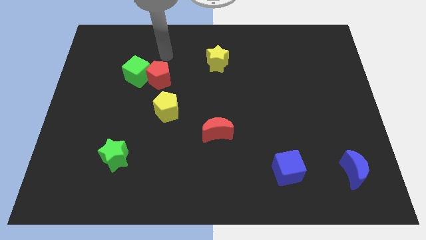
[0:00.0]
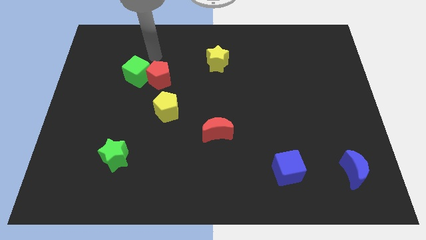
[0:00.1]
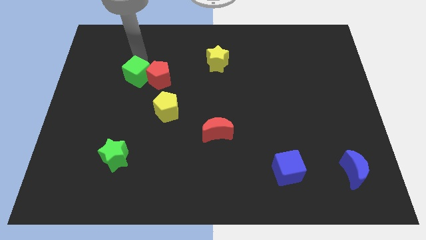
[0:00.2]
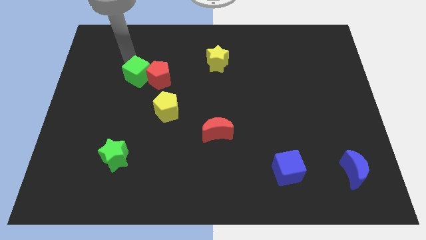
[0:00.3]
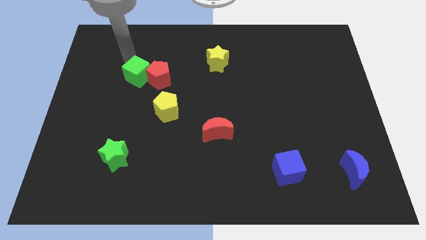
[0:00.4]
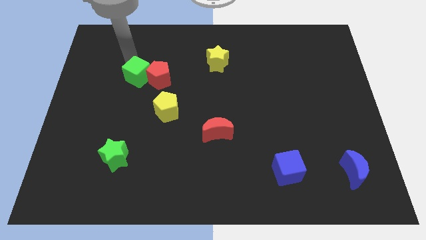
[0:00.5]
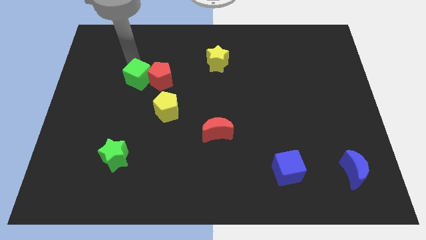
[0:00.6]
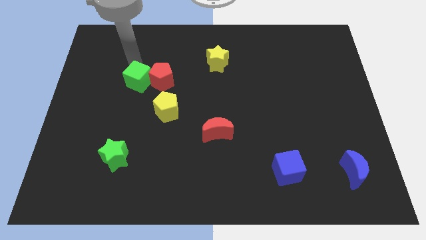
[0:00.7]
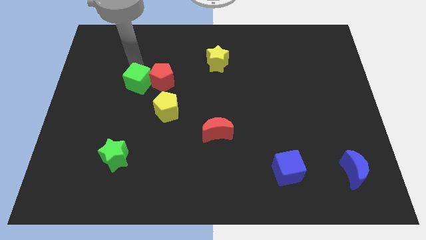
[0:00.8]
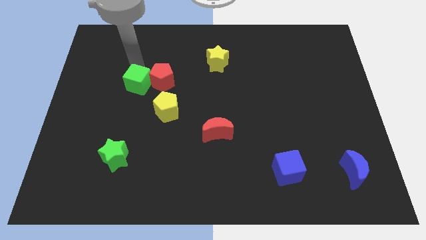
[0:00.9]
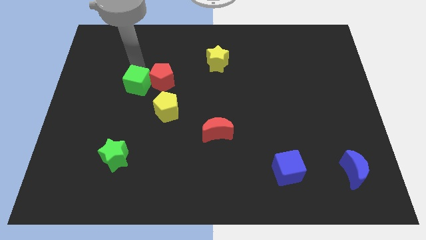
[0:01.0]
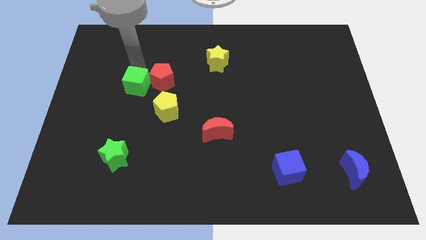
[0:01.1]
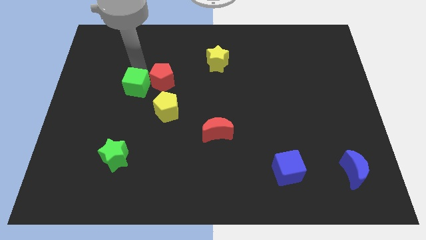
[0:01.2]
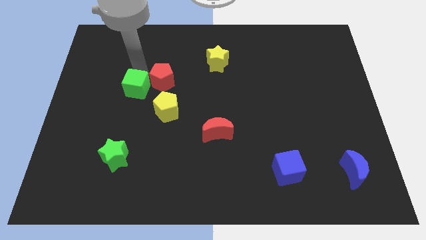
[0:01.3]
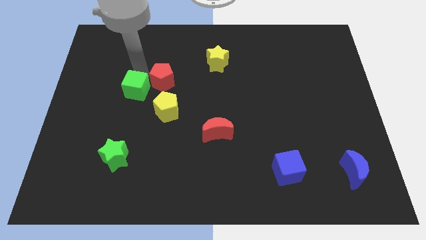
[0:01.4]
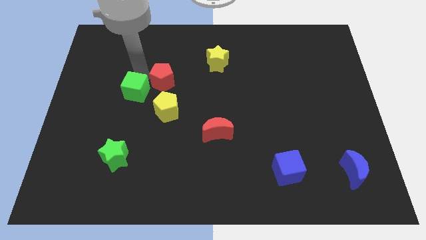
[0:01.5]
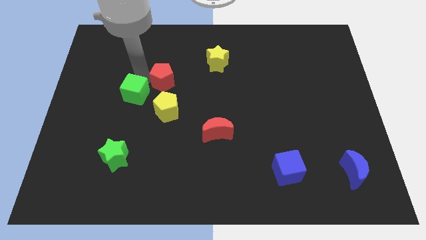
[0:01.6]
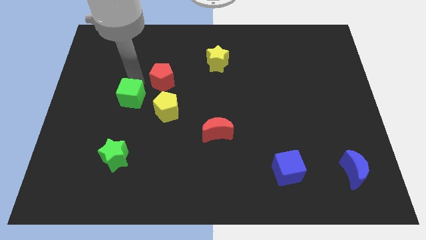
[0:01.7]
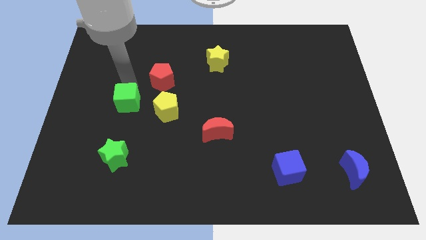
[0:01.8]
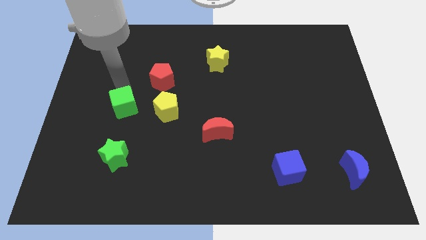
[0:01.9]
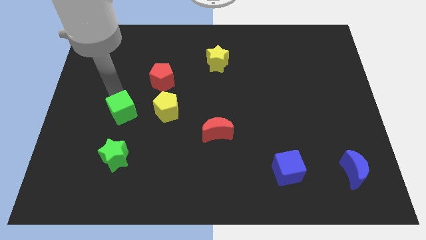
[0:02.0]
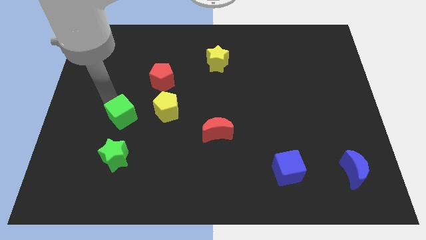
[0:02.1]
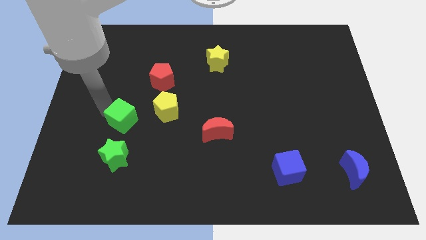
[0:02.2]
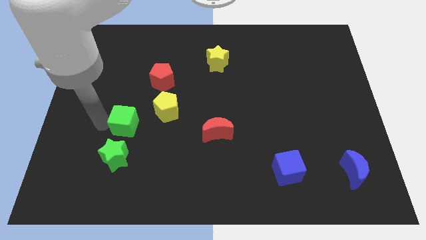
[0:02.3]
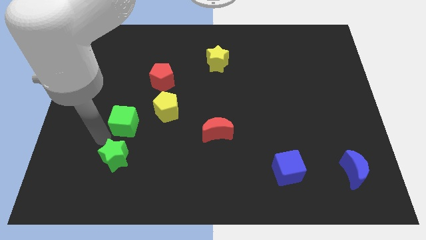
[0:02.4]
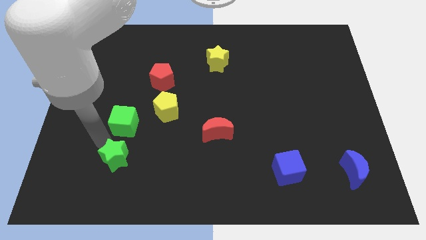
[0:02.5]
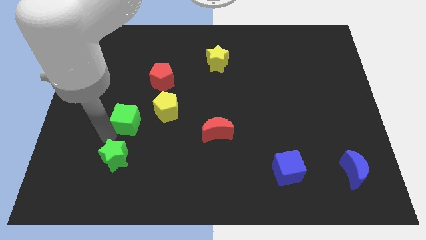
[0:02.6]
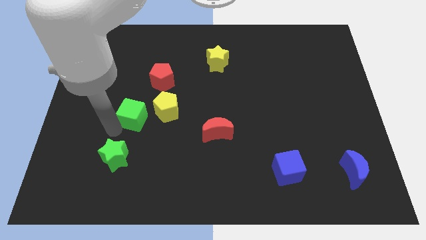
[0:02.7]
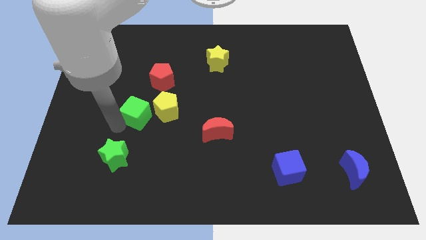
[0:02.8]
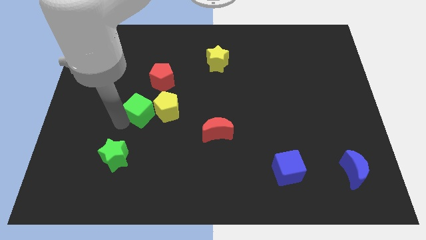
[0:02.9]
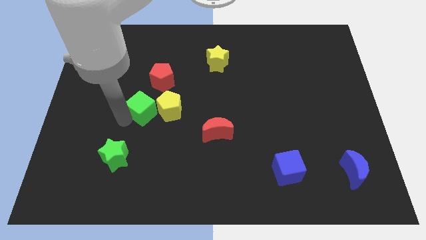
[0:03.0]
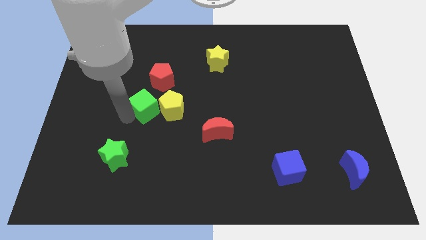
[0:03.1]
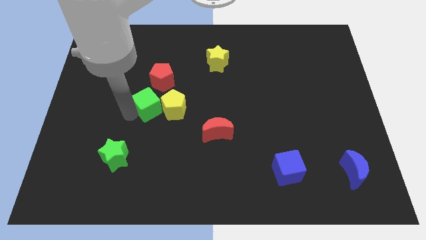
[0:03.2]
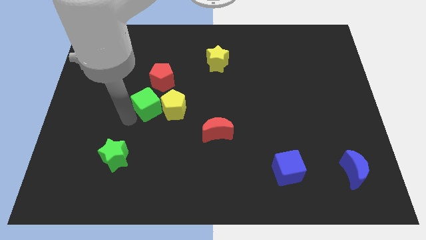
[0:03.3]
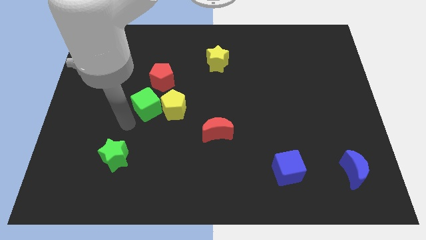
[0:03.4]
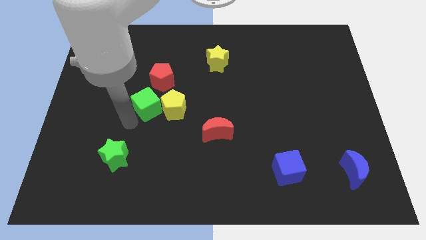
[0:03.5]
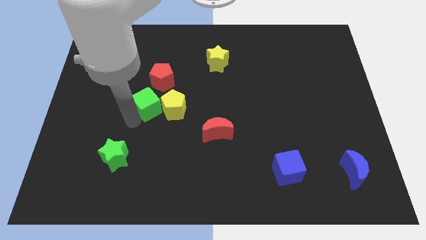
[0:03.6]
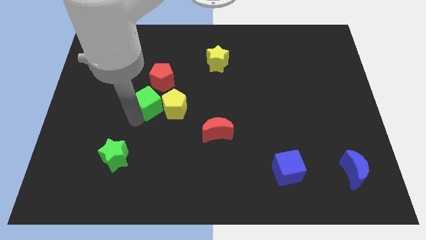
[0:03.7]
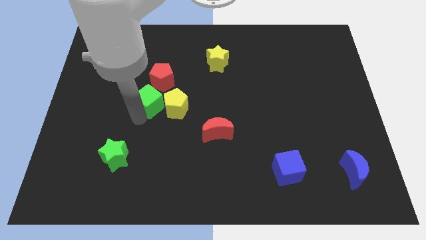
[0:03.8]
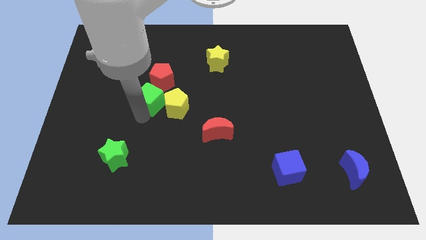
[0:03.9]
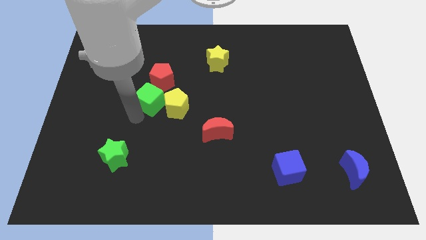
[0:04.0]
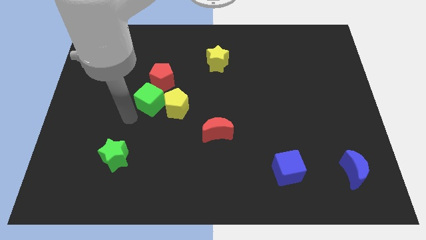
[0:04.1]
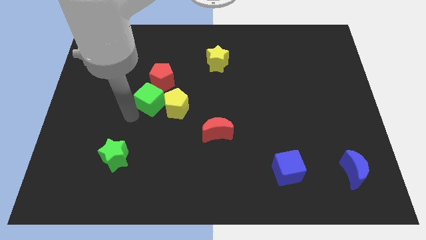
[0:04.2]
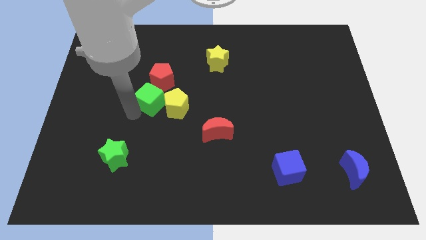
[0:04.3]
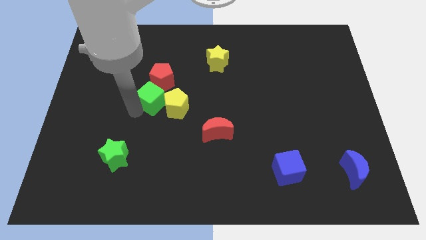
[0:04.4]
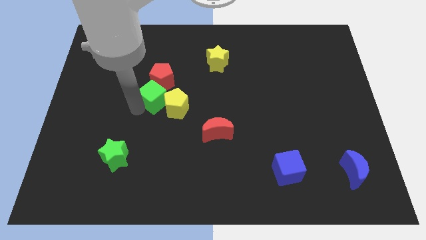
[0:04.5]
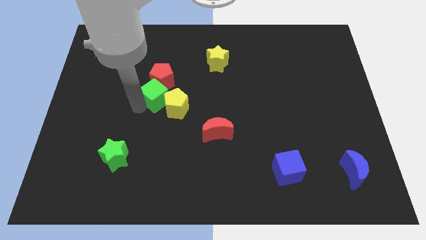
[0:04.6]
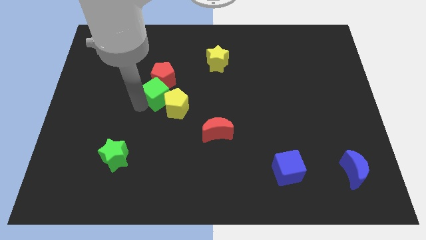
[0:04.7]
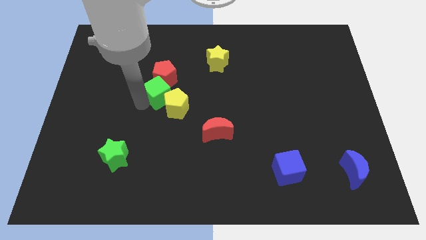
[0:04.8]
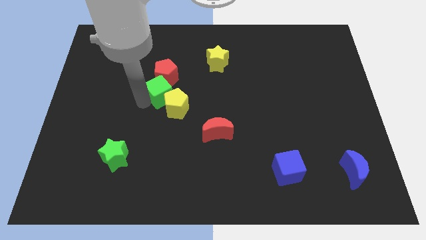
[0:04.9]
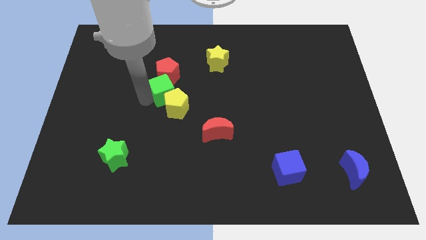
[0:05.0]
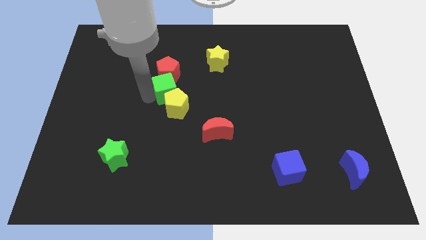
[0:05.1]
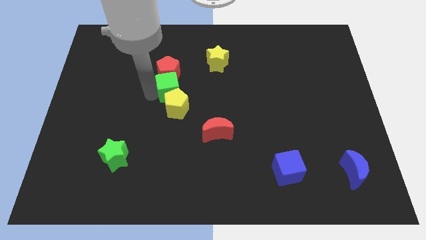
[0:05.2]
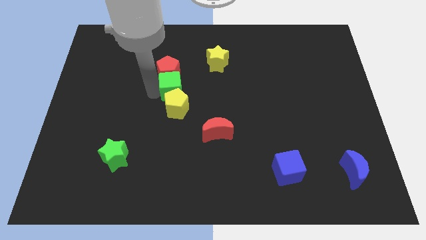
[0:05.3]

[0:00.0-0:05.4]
push the green cube to the top right of the yellow pentagon

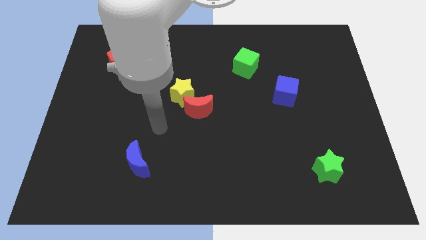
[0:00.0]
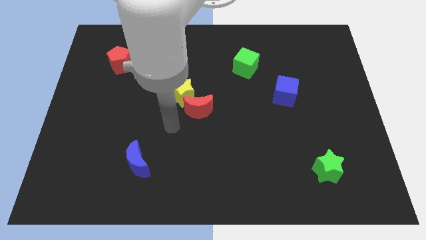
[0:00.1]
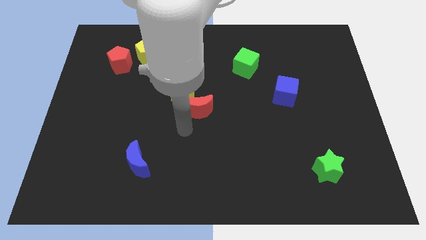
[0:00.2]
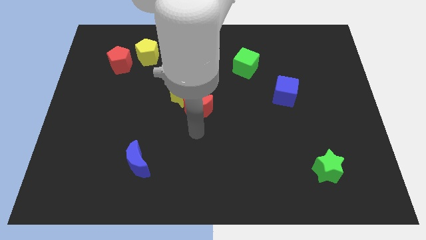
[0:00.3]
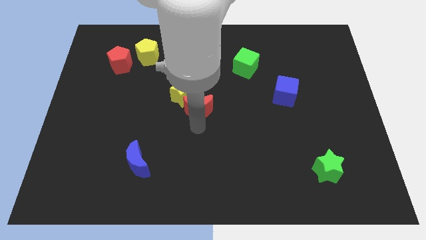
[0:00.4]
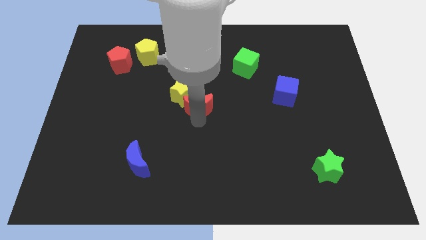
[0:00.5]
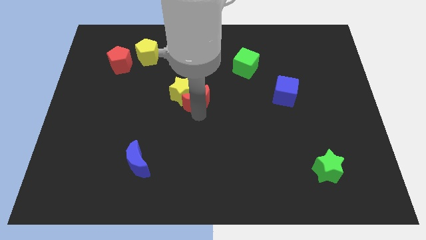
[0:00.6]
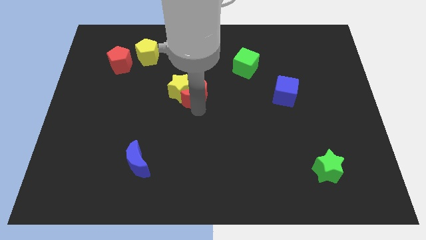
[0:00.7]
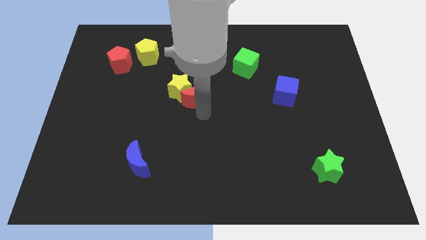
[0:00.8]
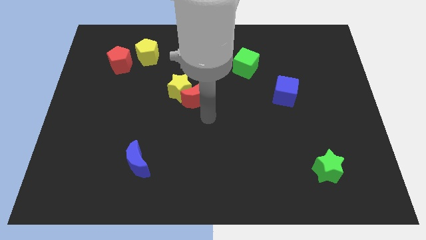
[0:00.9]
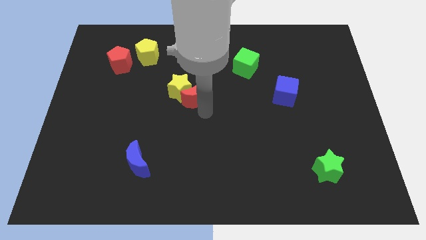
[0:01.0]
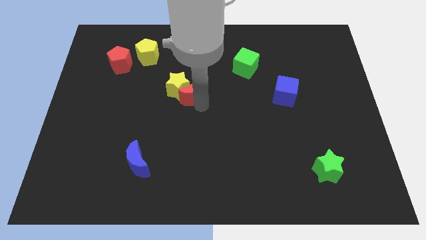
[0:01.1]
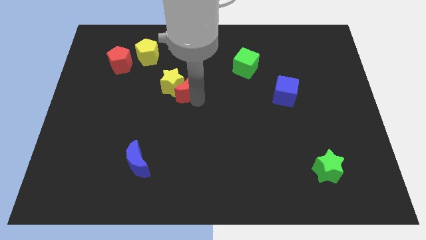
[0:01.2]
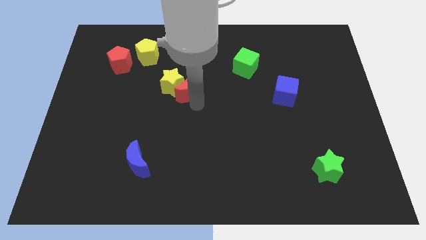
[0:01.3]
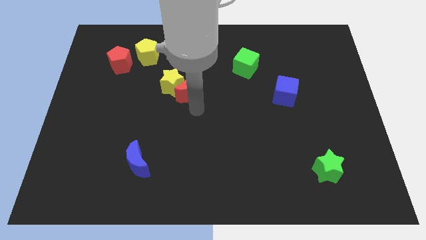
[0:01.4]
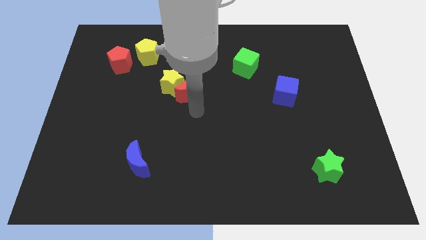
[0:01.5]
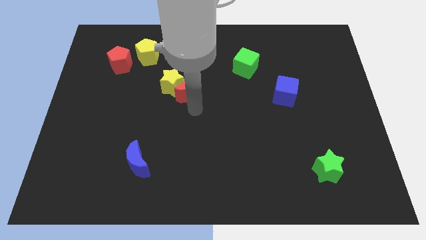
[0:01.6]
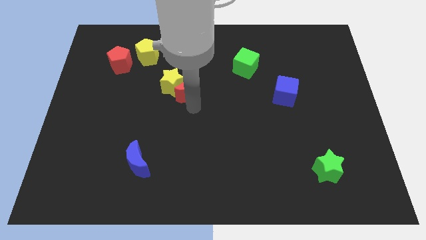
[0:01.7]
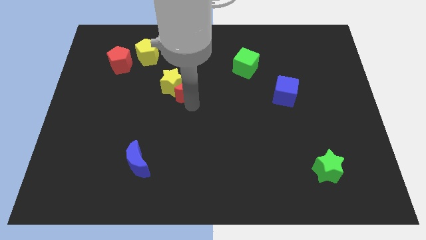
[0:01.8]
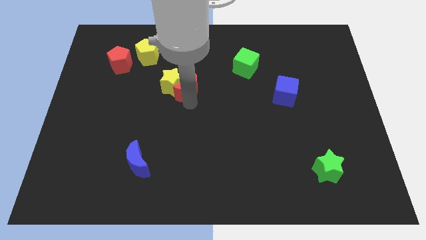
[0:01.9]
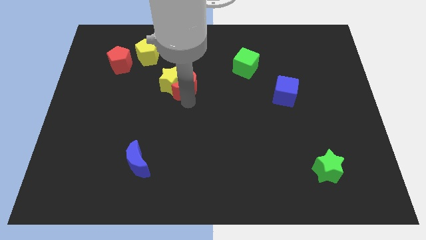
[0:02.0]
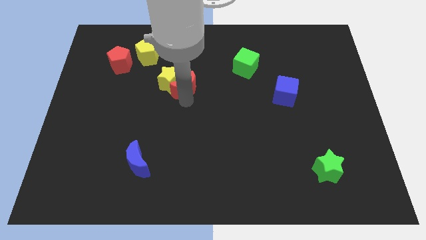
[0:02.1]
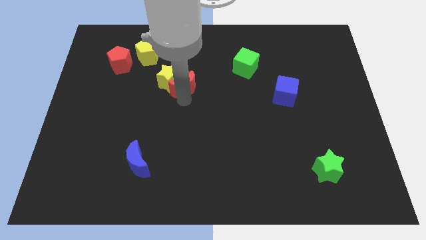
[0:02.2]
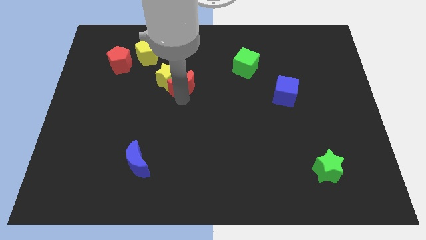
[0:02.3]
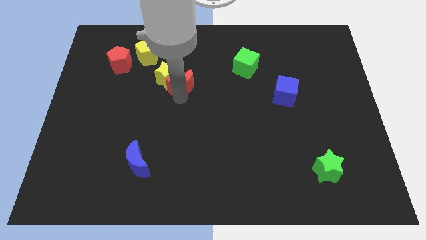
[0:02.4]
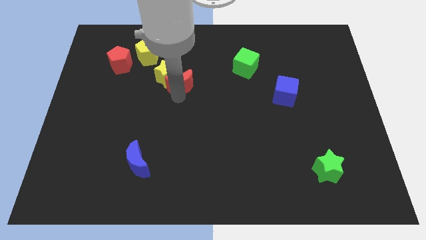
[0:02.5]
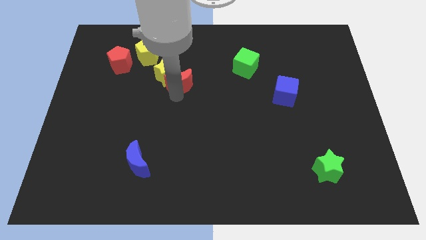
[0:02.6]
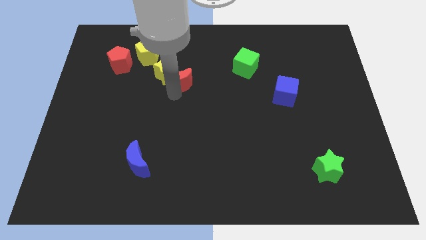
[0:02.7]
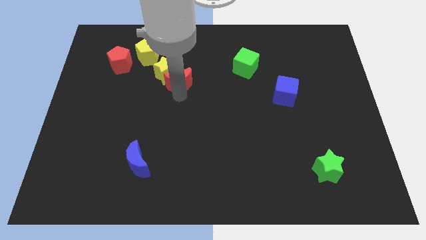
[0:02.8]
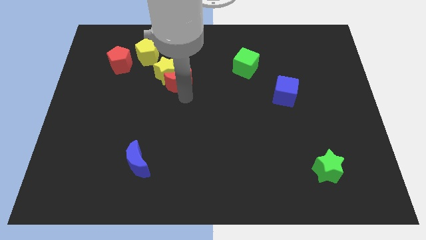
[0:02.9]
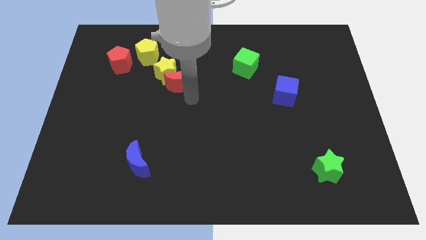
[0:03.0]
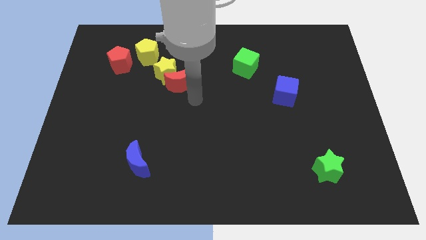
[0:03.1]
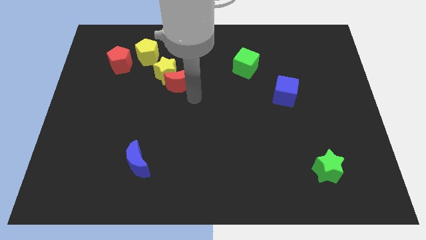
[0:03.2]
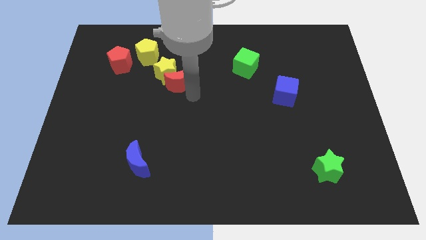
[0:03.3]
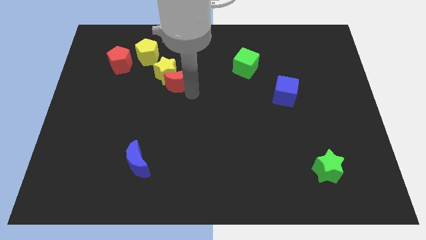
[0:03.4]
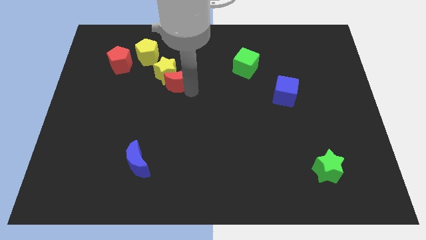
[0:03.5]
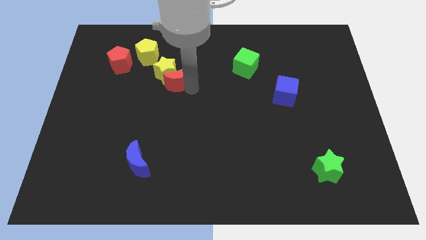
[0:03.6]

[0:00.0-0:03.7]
put the red moon to the bottom right side of the yellow pentagon
